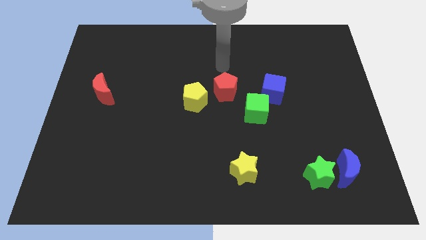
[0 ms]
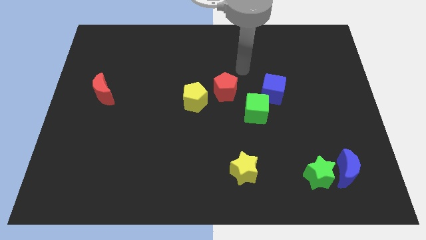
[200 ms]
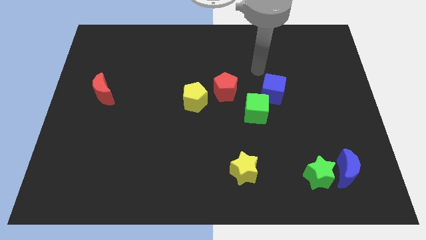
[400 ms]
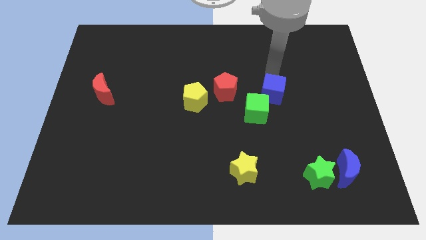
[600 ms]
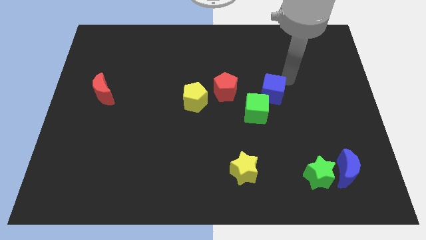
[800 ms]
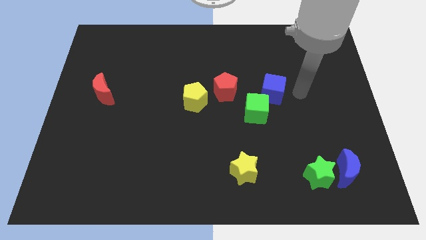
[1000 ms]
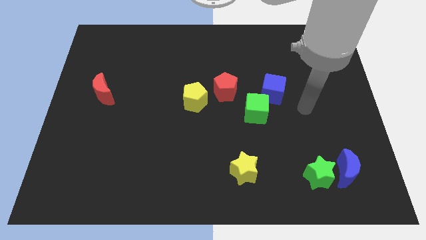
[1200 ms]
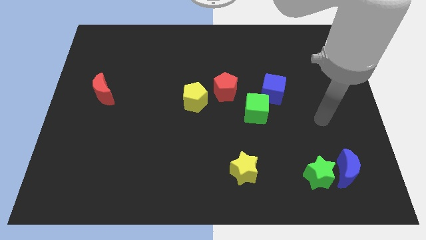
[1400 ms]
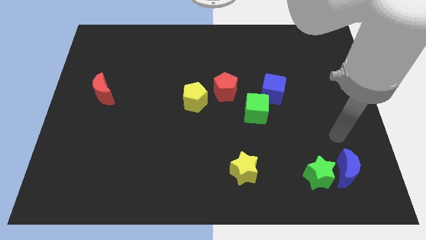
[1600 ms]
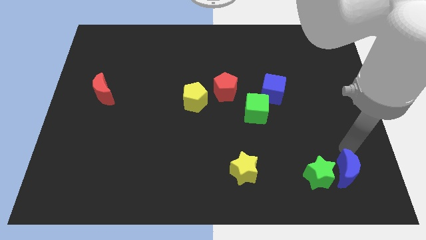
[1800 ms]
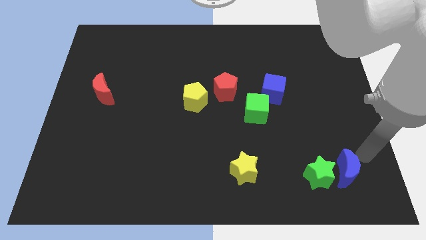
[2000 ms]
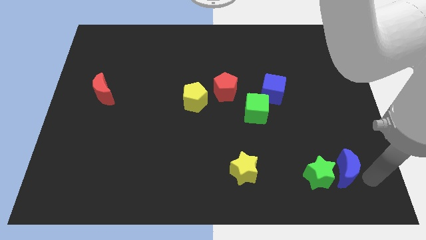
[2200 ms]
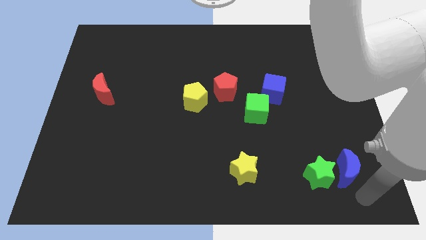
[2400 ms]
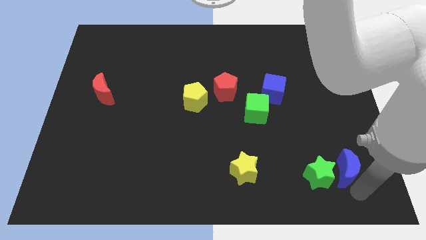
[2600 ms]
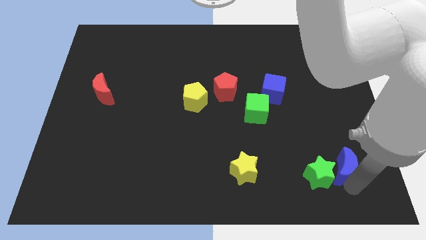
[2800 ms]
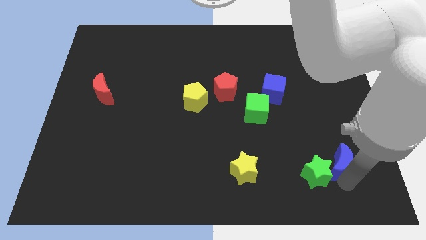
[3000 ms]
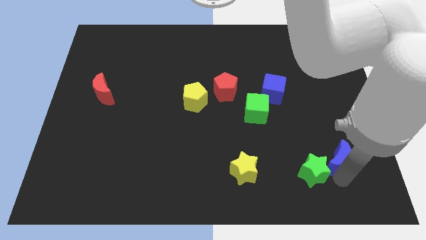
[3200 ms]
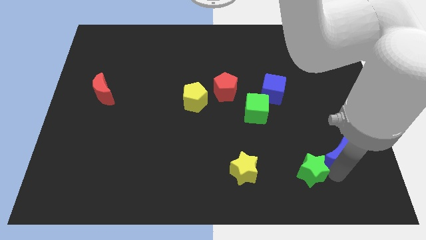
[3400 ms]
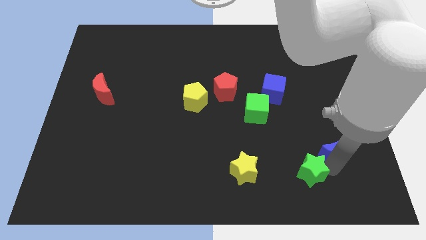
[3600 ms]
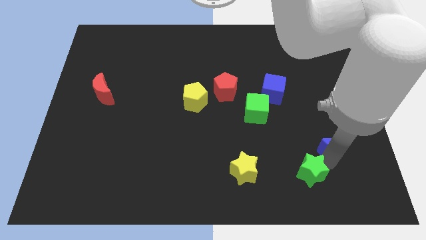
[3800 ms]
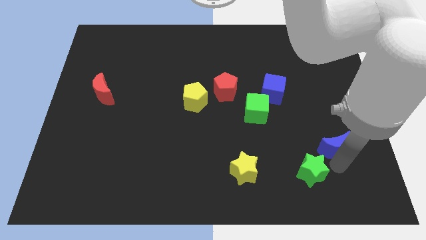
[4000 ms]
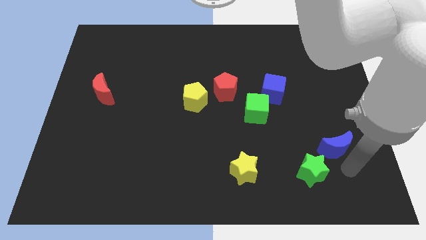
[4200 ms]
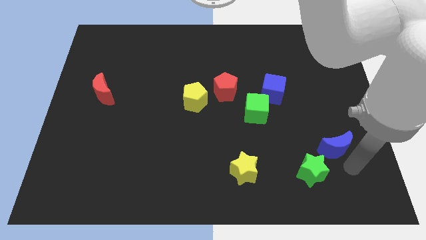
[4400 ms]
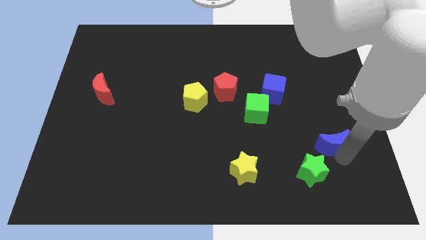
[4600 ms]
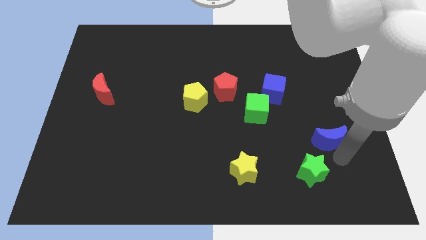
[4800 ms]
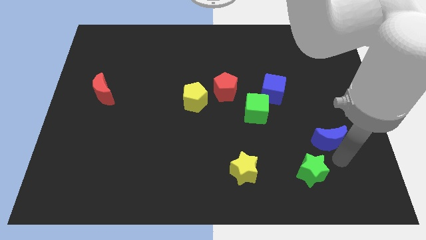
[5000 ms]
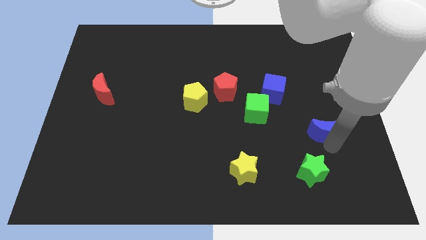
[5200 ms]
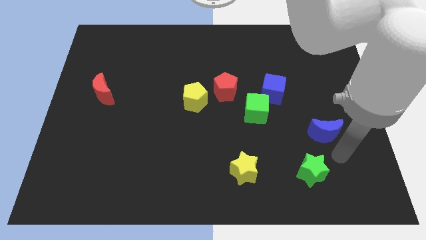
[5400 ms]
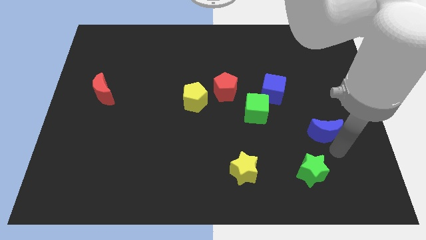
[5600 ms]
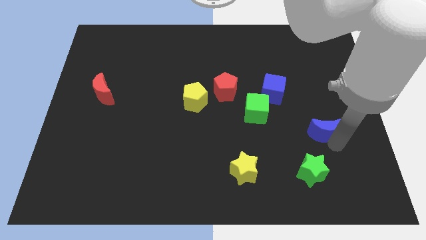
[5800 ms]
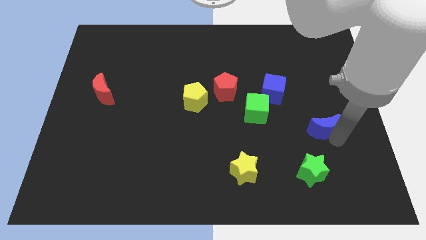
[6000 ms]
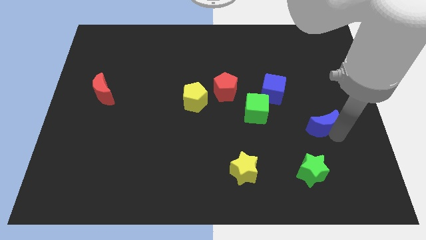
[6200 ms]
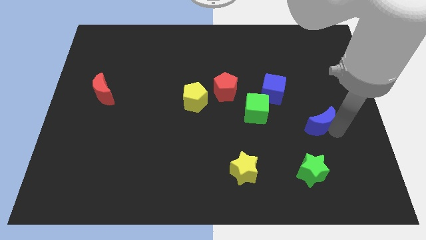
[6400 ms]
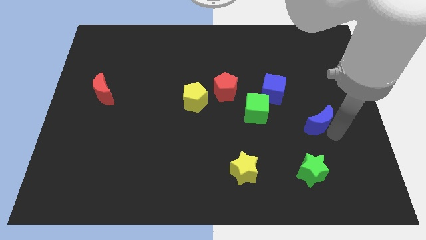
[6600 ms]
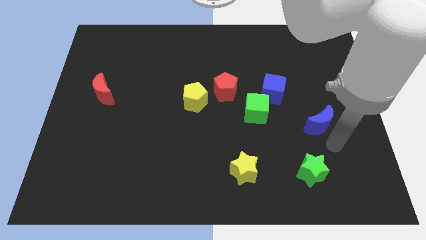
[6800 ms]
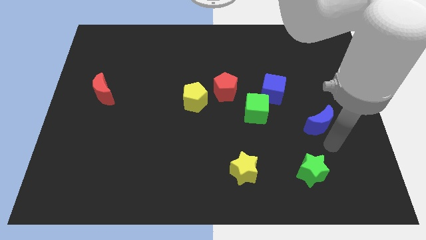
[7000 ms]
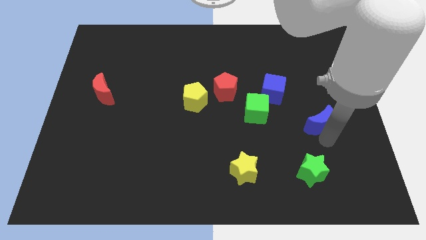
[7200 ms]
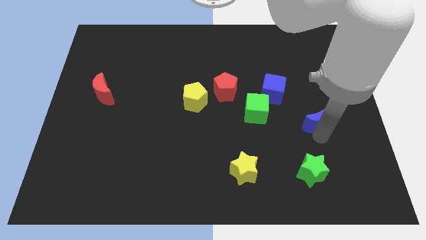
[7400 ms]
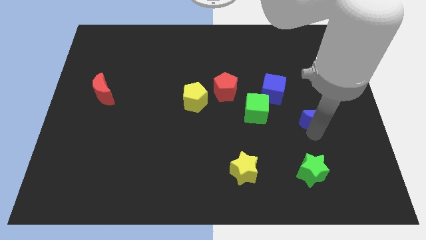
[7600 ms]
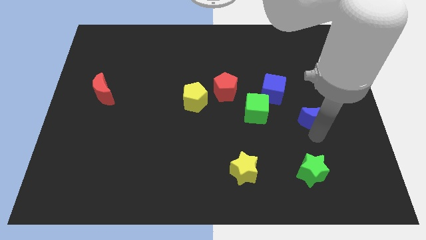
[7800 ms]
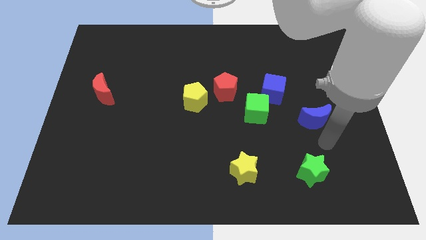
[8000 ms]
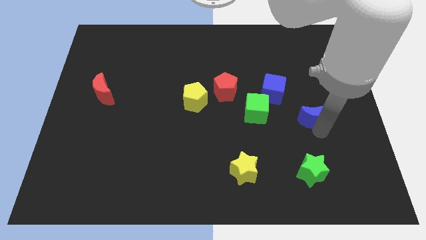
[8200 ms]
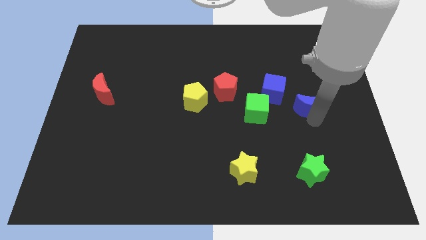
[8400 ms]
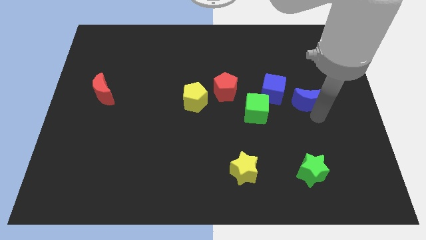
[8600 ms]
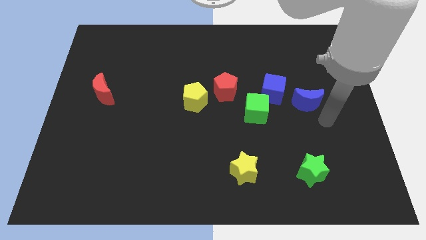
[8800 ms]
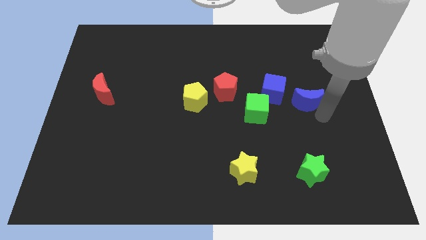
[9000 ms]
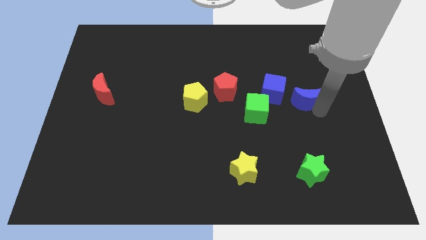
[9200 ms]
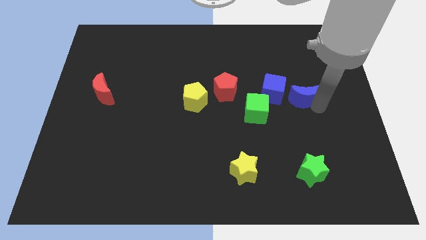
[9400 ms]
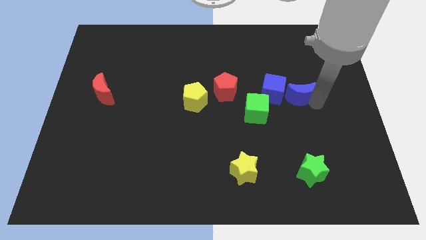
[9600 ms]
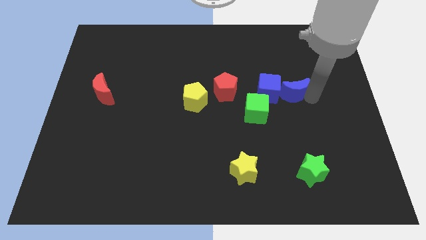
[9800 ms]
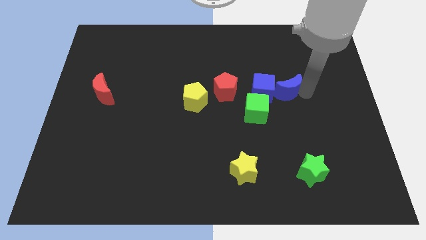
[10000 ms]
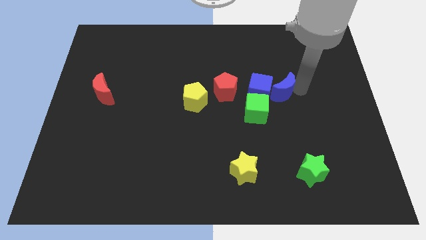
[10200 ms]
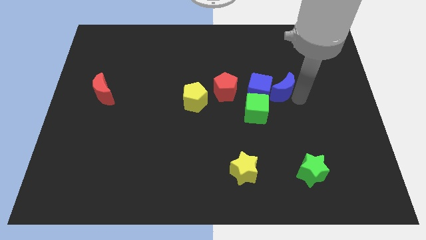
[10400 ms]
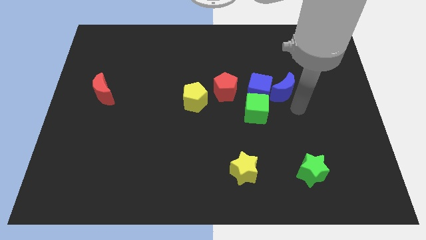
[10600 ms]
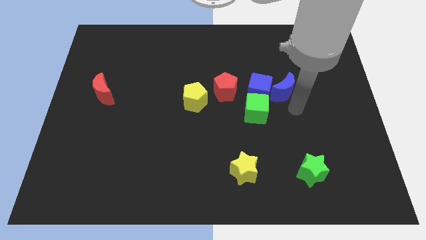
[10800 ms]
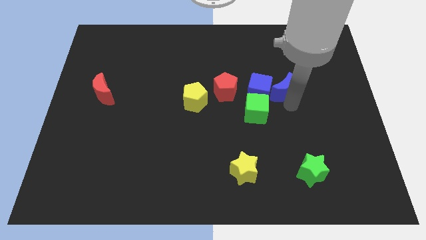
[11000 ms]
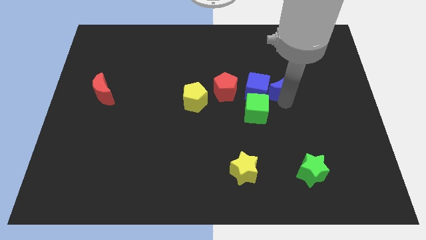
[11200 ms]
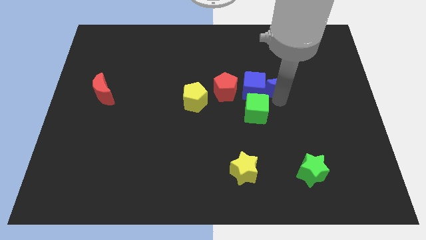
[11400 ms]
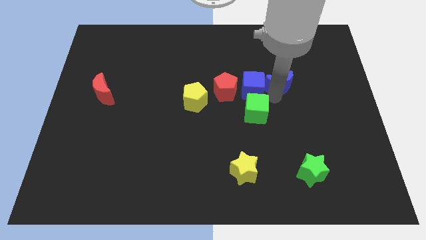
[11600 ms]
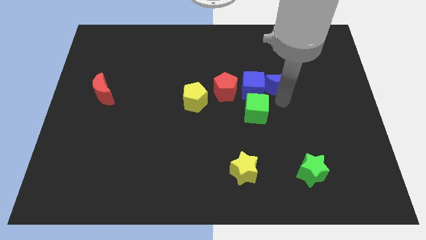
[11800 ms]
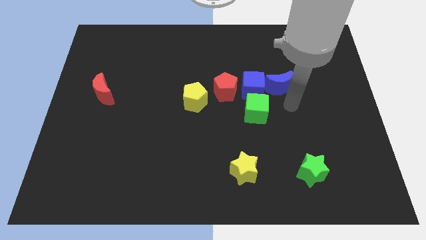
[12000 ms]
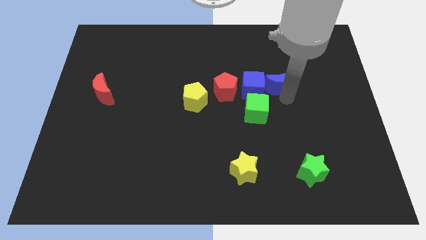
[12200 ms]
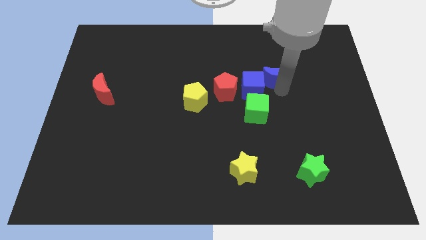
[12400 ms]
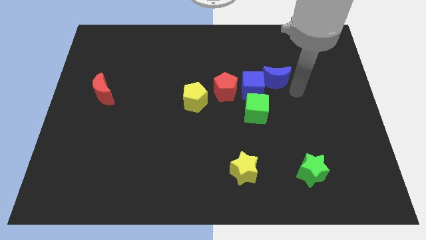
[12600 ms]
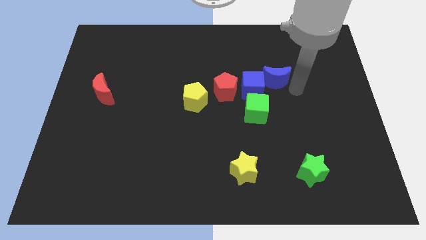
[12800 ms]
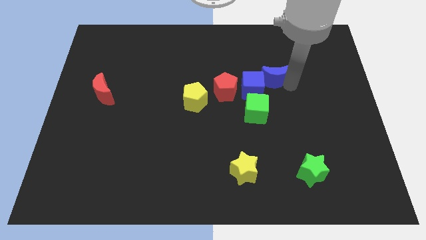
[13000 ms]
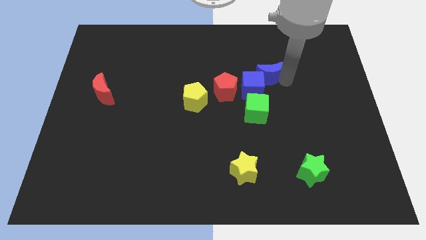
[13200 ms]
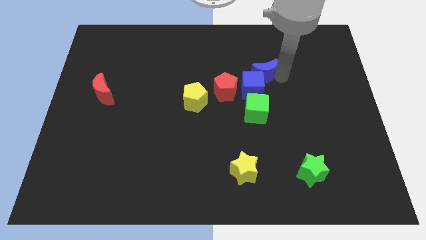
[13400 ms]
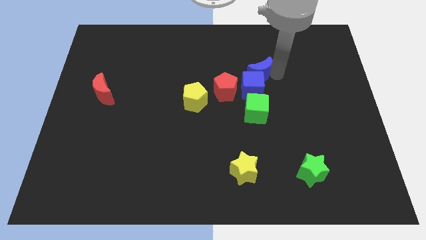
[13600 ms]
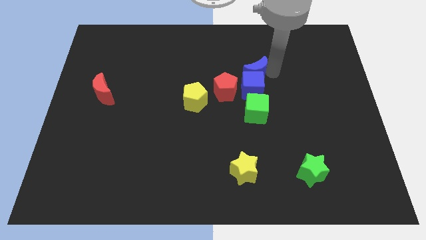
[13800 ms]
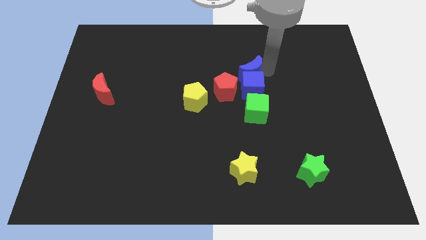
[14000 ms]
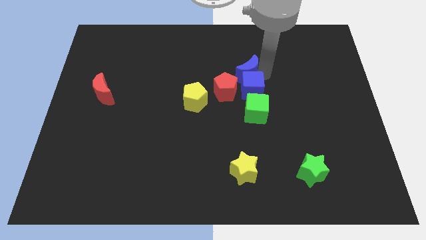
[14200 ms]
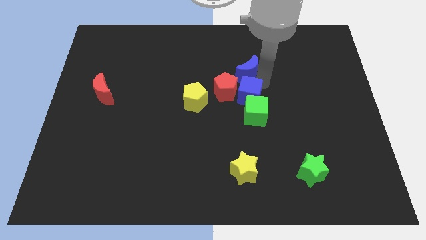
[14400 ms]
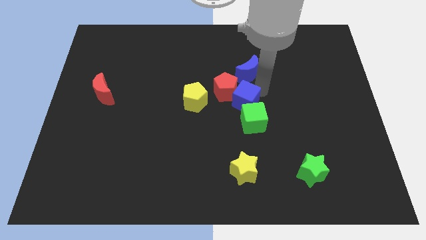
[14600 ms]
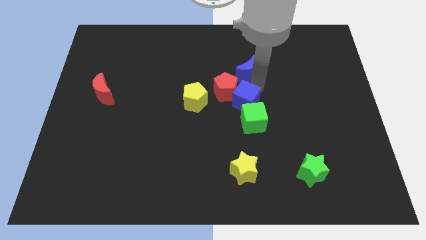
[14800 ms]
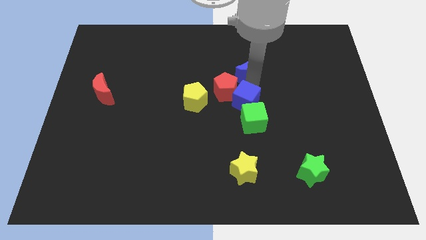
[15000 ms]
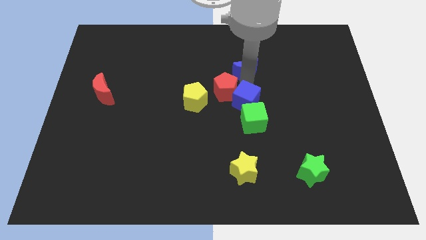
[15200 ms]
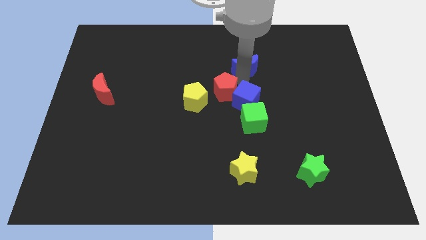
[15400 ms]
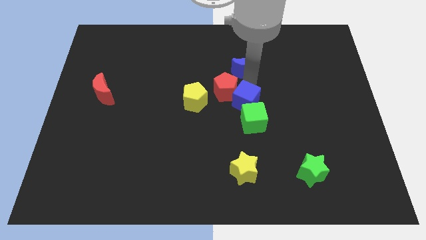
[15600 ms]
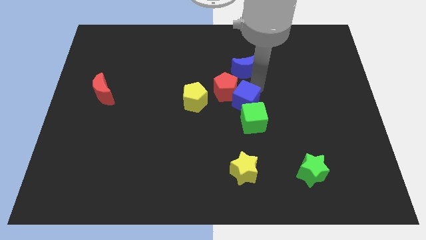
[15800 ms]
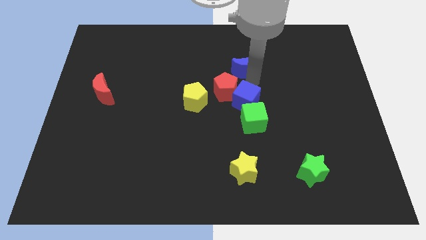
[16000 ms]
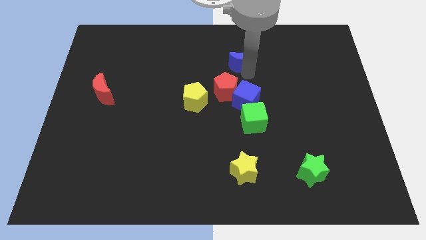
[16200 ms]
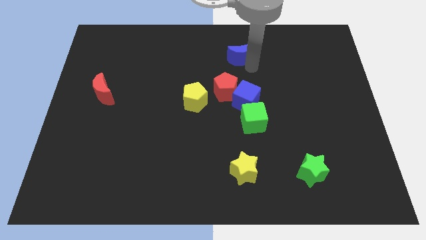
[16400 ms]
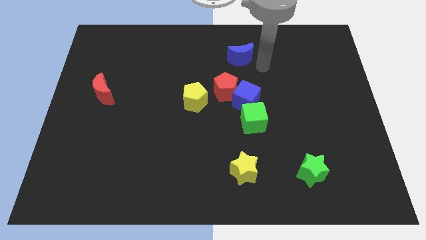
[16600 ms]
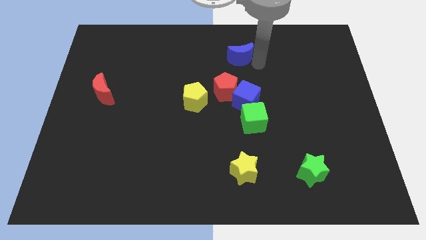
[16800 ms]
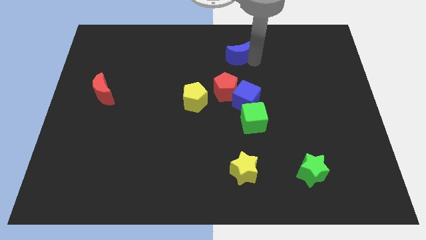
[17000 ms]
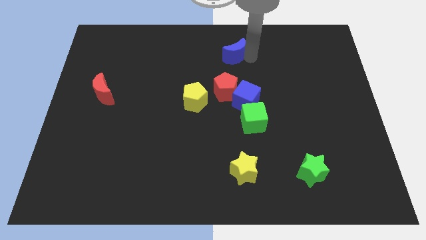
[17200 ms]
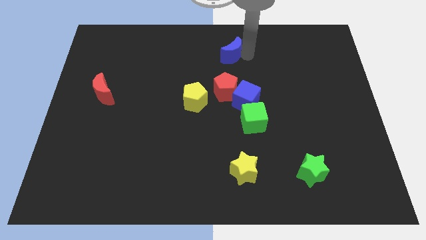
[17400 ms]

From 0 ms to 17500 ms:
slide the blue moon to the top
